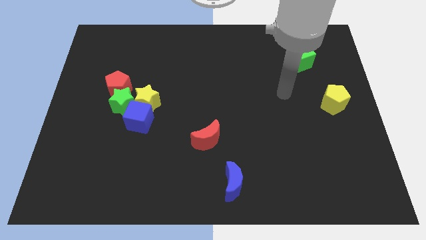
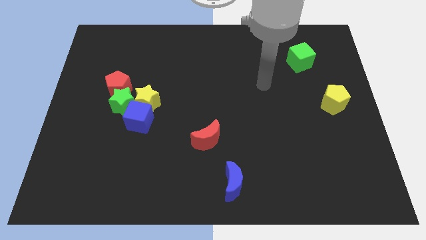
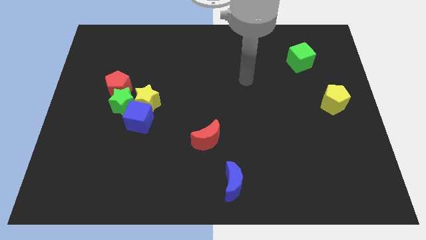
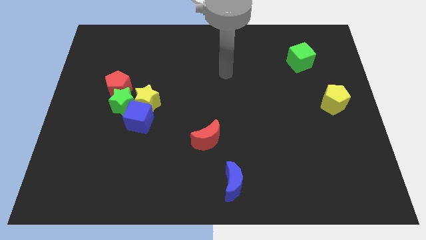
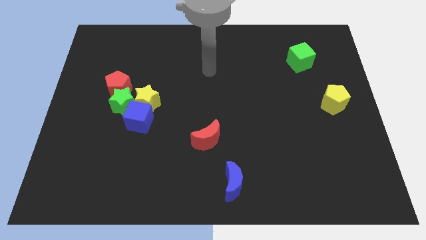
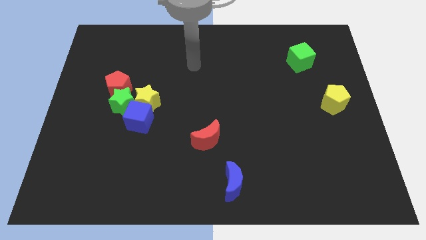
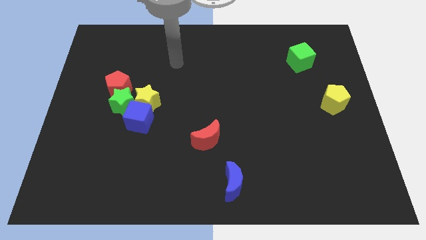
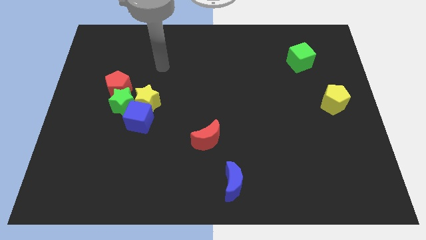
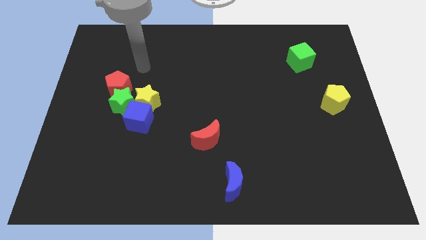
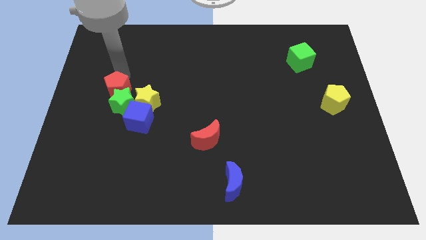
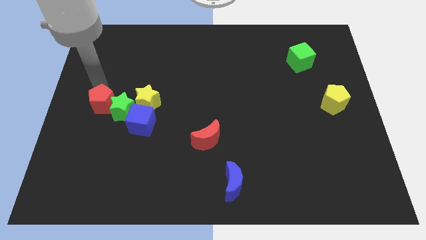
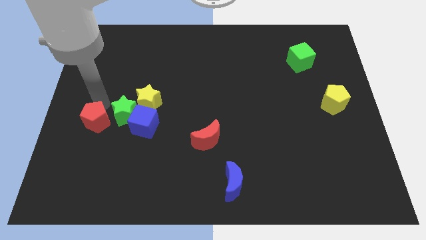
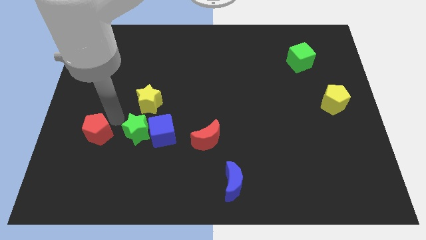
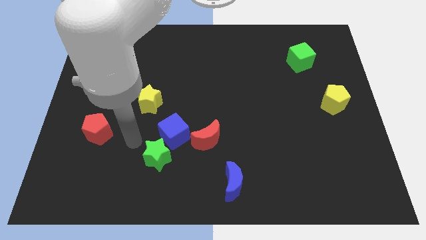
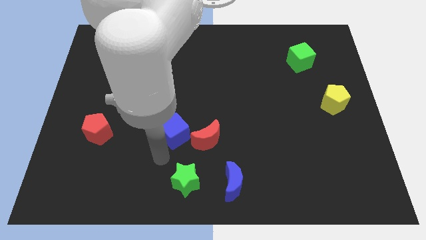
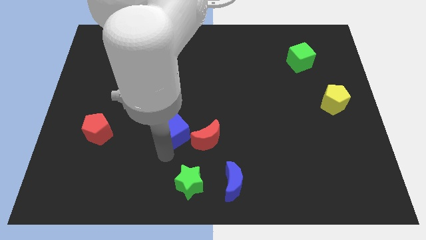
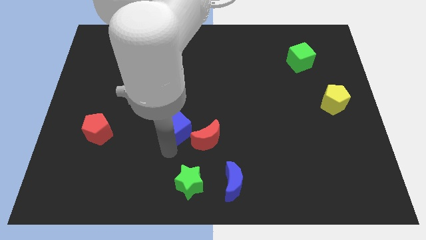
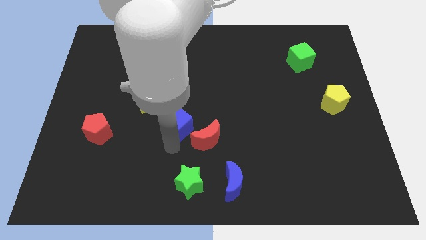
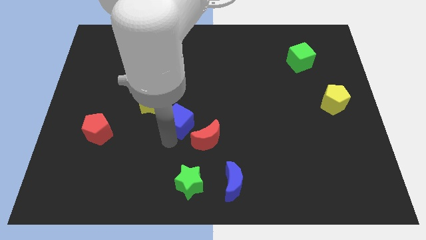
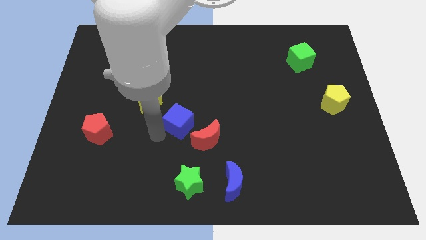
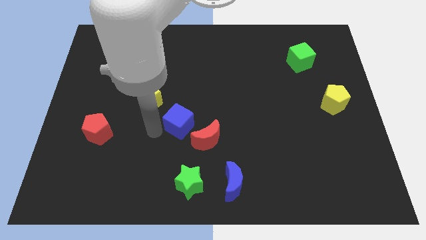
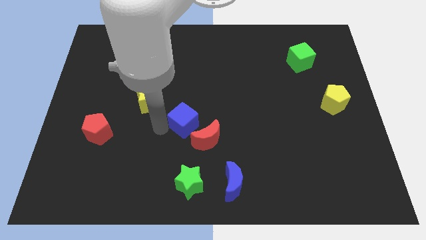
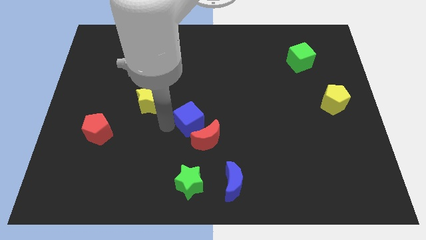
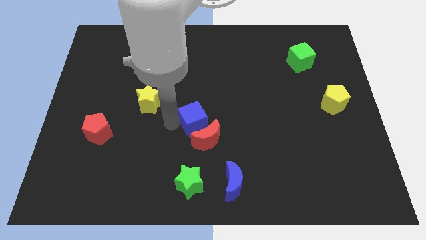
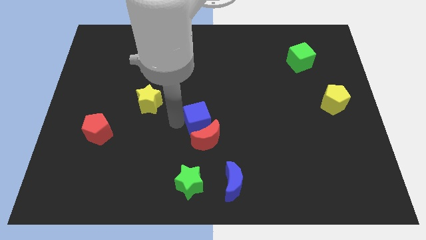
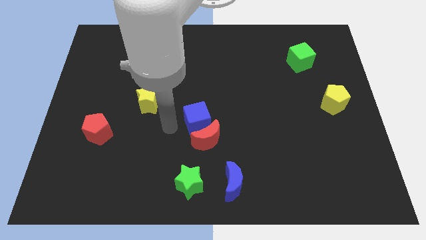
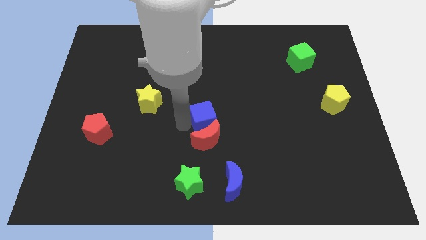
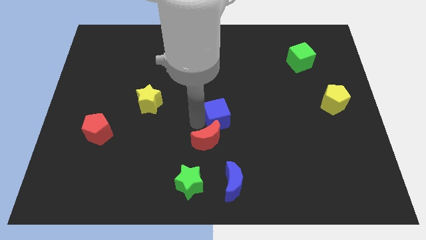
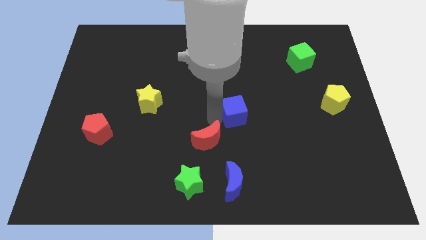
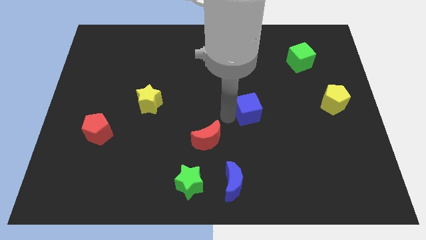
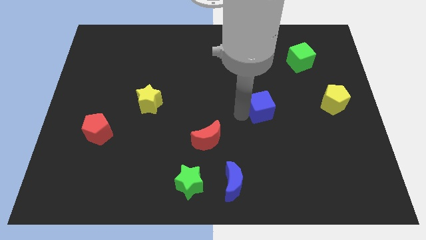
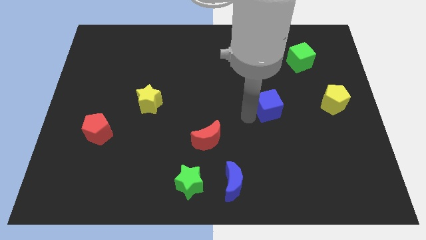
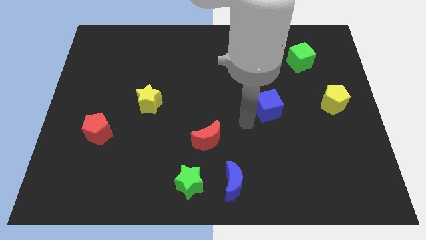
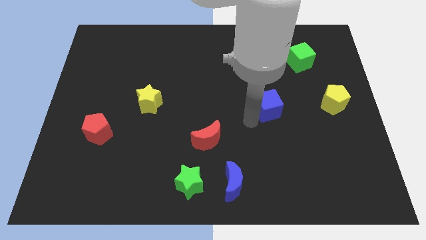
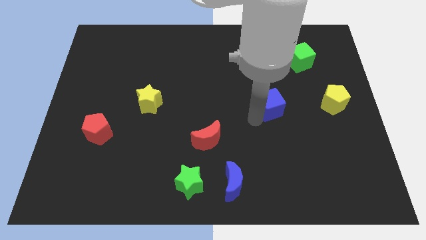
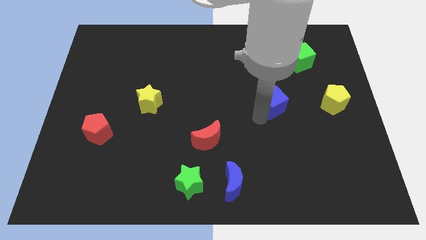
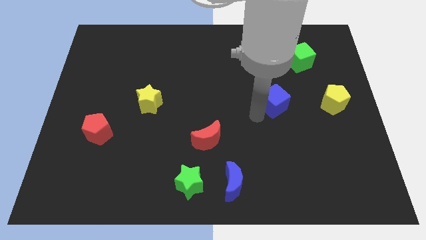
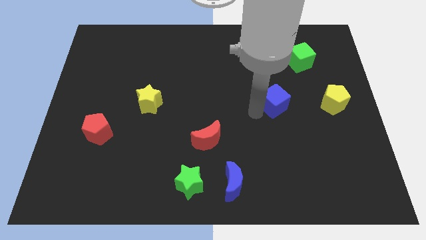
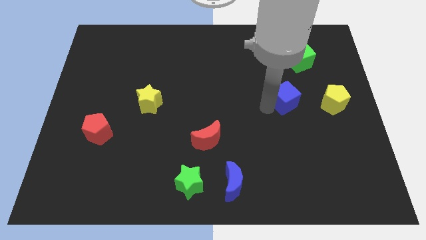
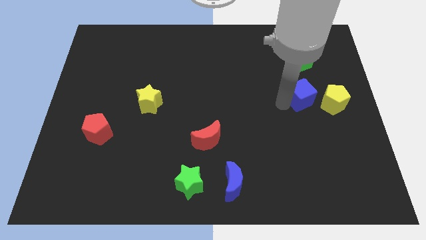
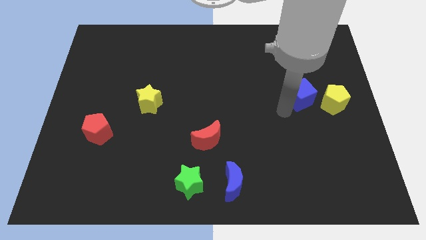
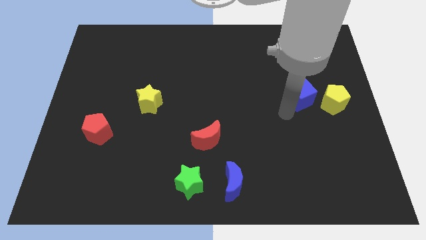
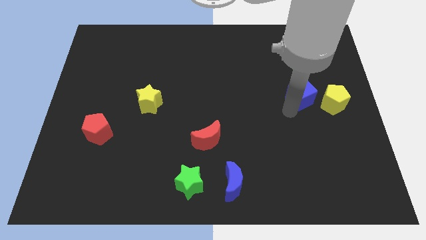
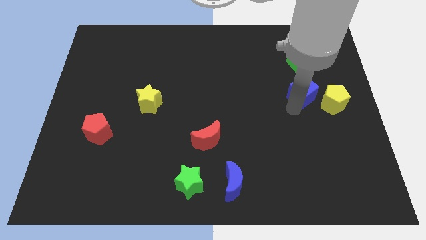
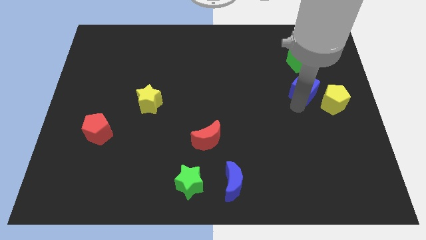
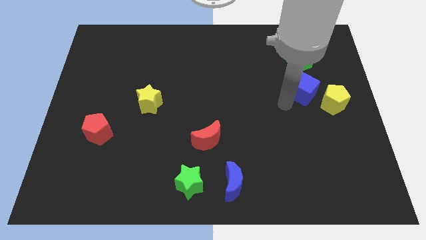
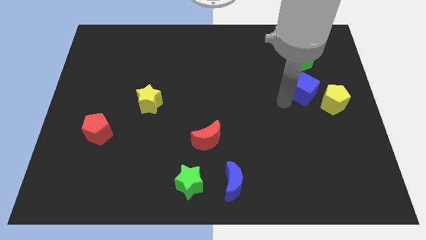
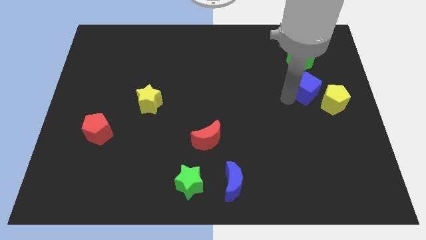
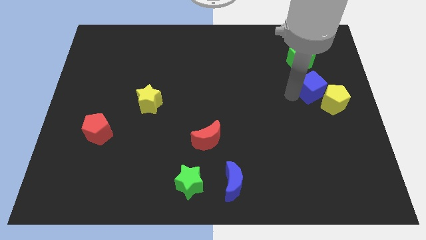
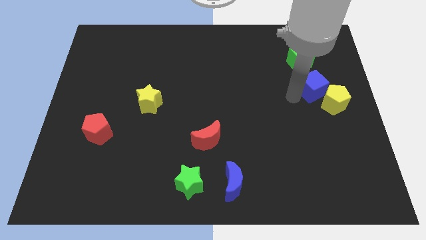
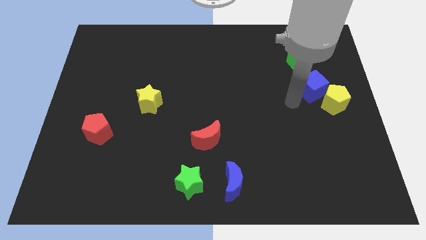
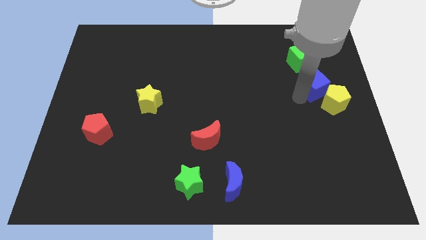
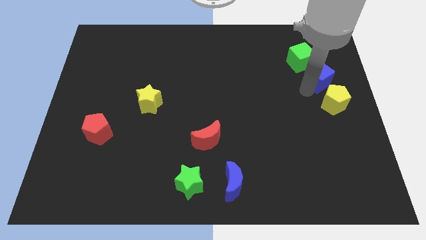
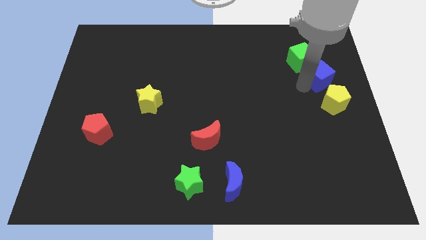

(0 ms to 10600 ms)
push the blue cube to the center right
